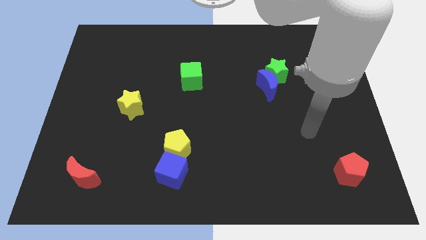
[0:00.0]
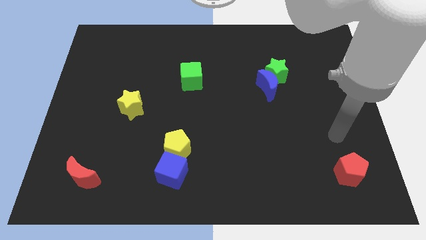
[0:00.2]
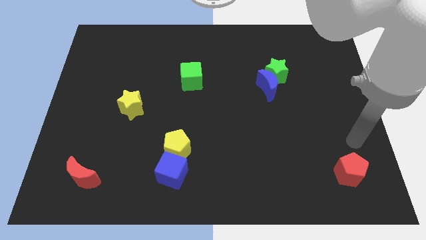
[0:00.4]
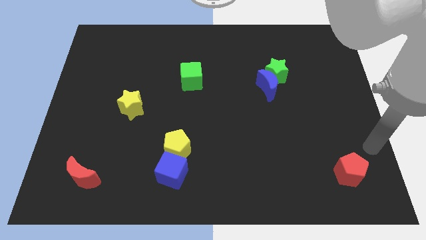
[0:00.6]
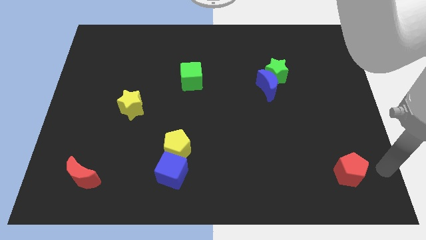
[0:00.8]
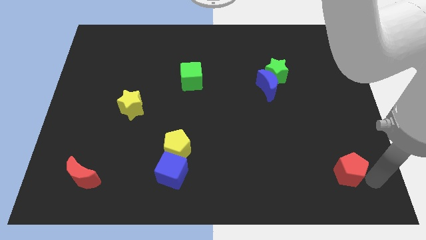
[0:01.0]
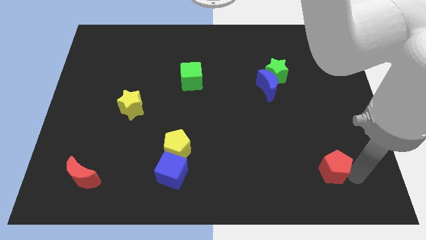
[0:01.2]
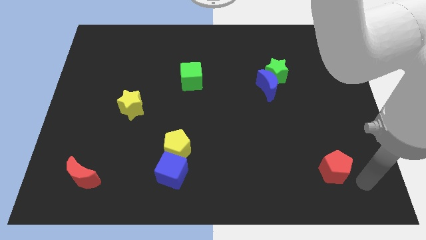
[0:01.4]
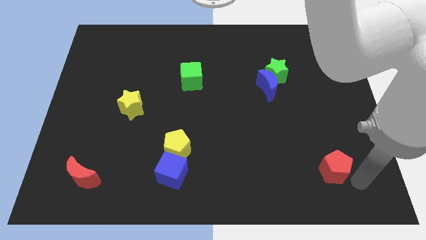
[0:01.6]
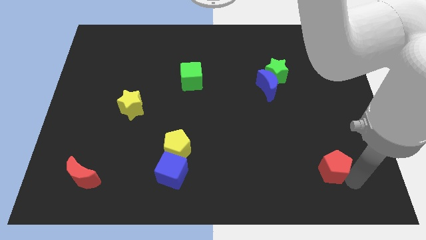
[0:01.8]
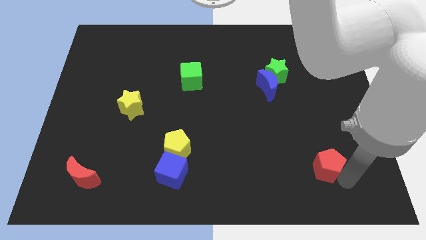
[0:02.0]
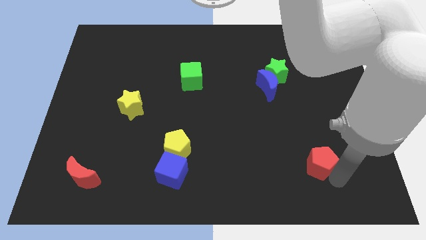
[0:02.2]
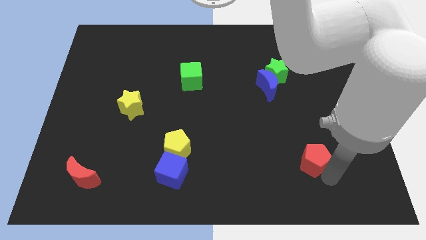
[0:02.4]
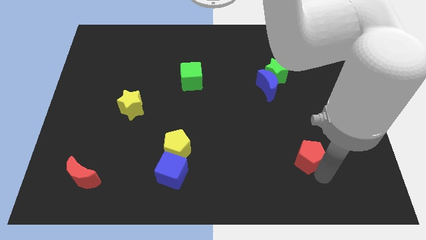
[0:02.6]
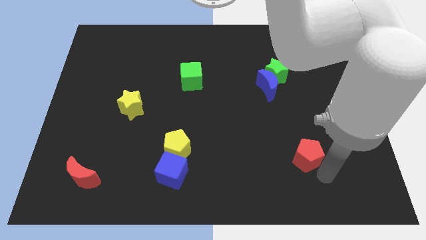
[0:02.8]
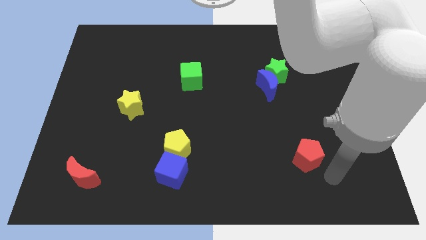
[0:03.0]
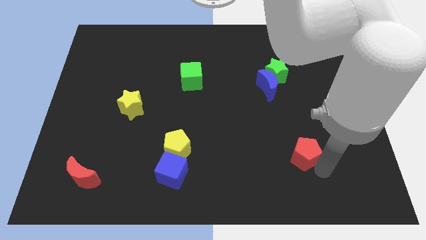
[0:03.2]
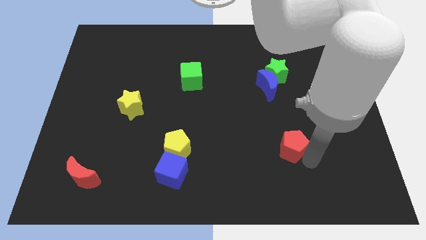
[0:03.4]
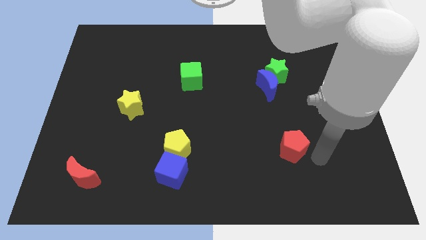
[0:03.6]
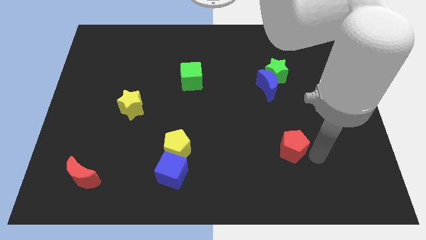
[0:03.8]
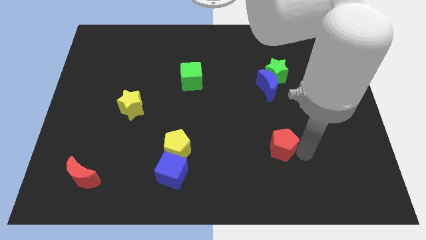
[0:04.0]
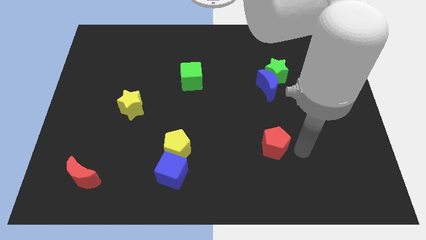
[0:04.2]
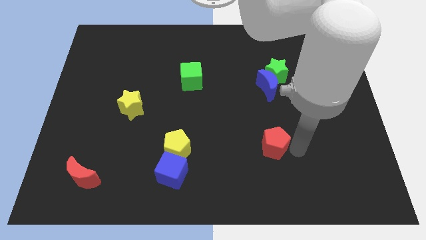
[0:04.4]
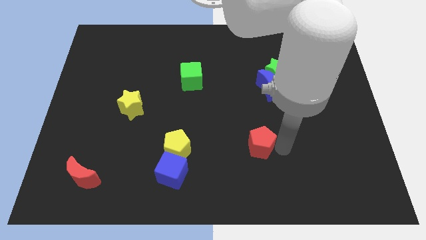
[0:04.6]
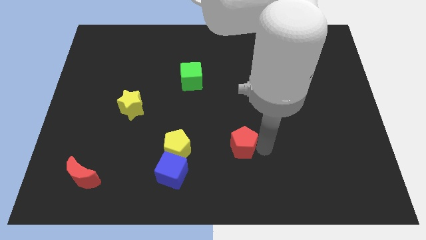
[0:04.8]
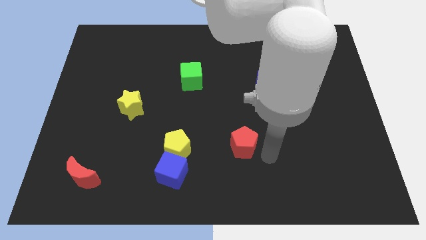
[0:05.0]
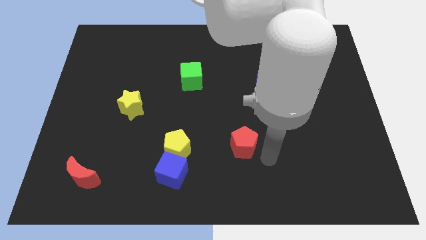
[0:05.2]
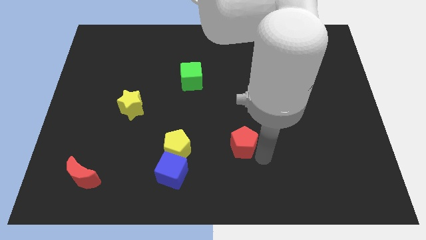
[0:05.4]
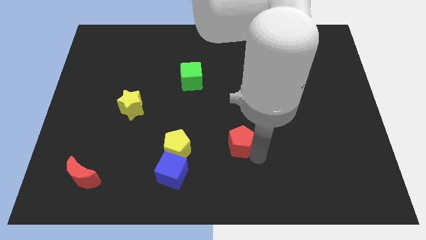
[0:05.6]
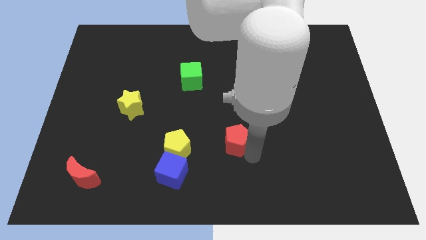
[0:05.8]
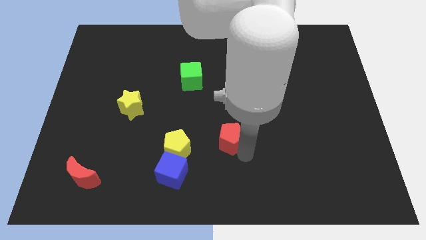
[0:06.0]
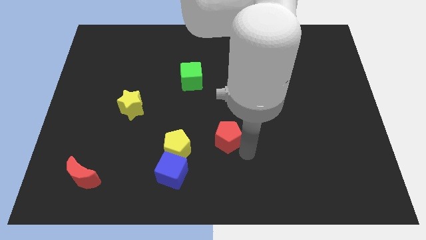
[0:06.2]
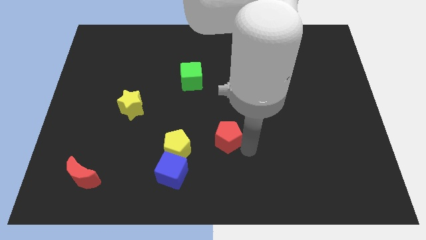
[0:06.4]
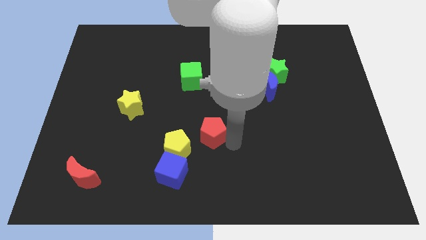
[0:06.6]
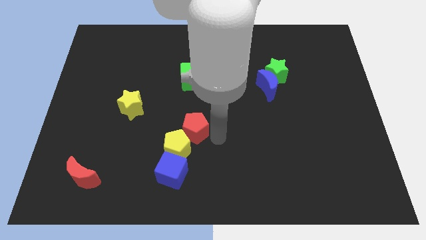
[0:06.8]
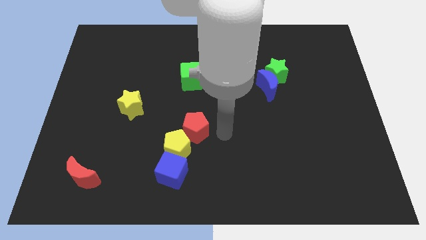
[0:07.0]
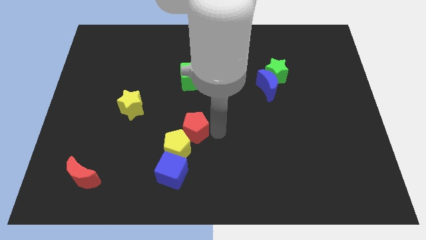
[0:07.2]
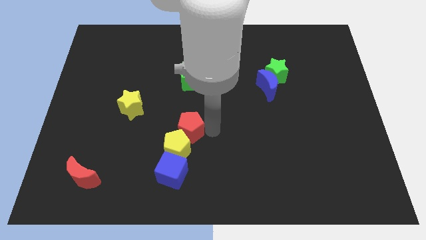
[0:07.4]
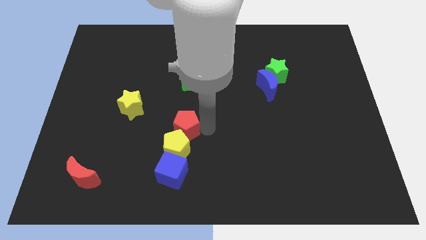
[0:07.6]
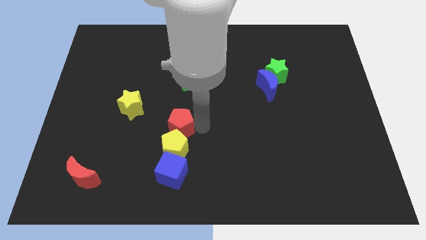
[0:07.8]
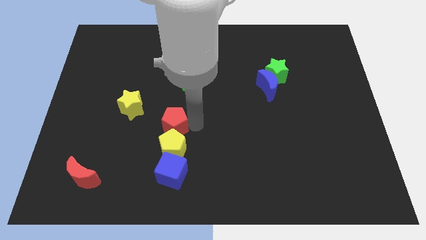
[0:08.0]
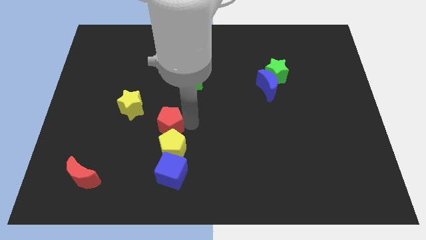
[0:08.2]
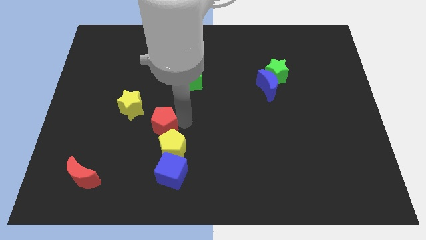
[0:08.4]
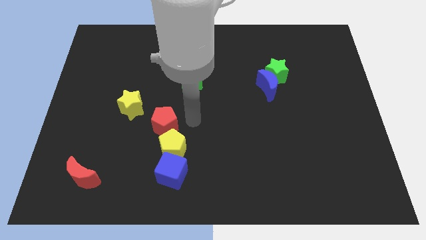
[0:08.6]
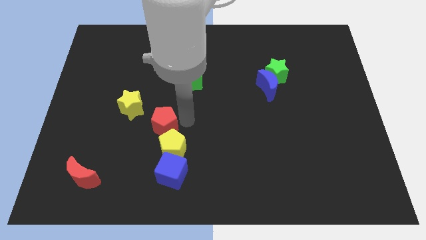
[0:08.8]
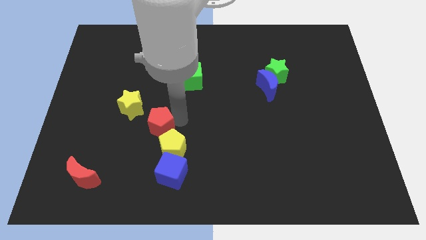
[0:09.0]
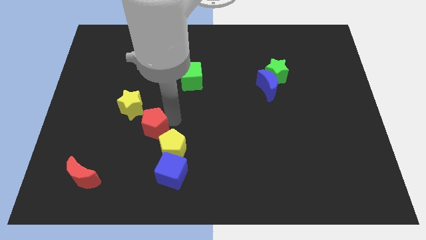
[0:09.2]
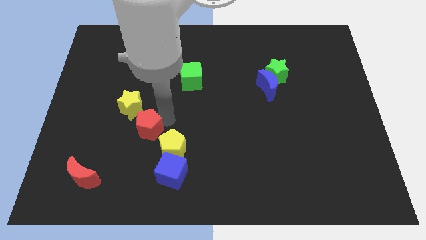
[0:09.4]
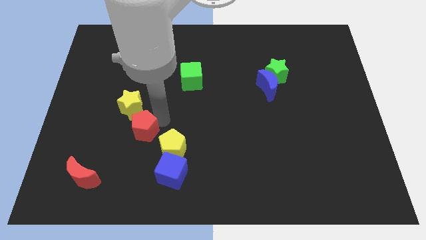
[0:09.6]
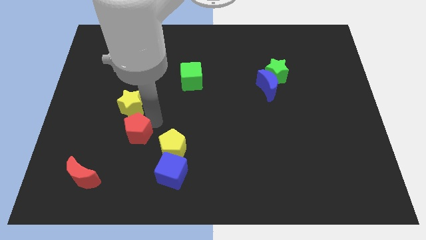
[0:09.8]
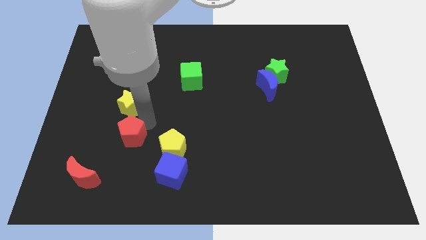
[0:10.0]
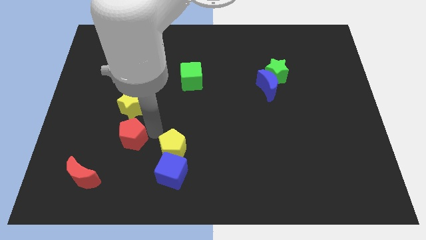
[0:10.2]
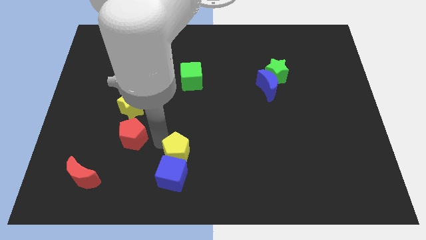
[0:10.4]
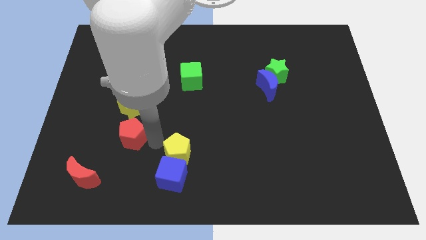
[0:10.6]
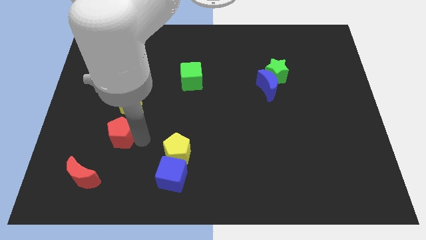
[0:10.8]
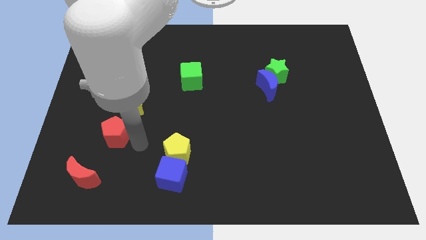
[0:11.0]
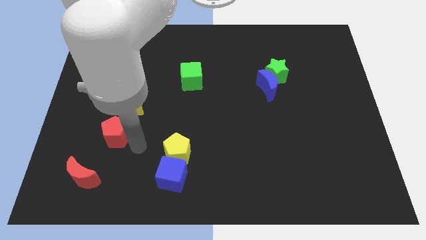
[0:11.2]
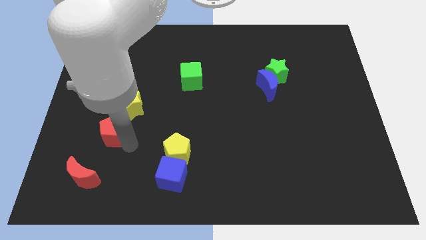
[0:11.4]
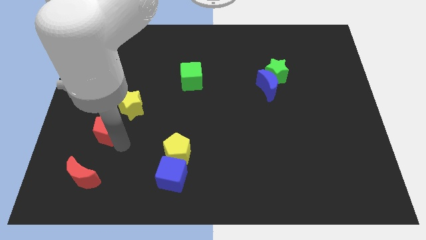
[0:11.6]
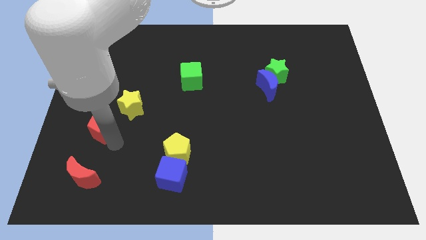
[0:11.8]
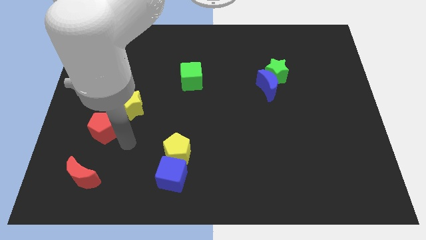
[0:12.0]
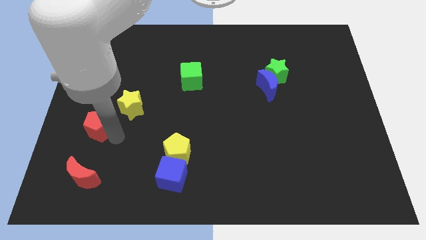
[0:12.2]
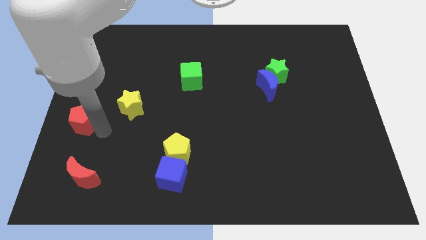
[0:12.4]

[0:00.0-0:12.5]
slide the red pentagon to the left side
